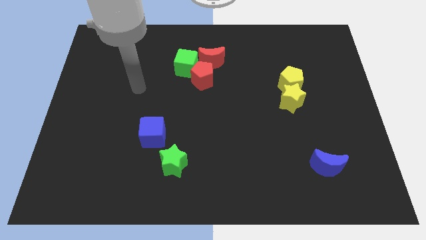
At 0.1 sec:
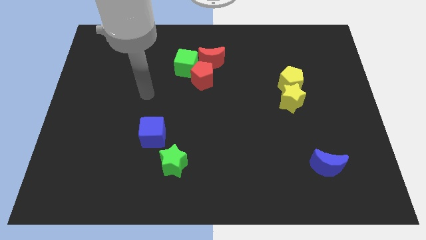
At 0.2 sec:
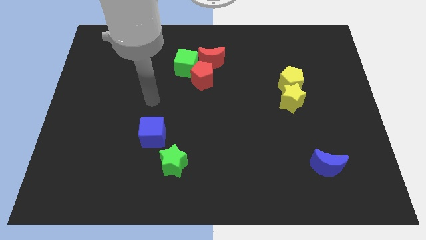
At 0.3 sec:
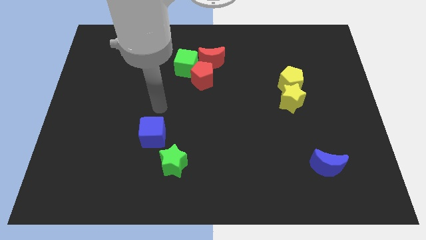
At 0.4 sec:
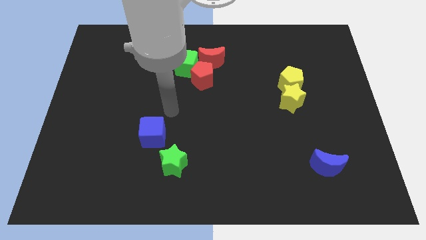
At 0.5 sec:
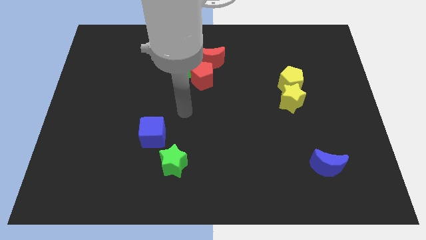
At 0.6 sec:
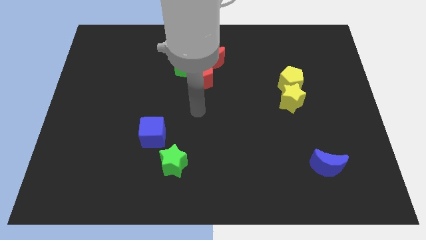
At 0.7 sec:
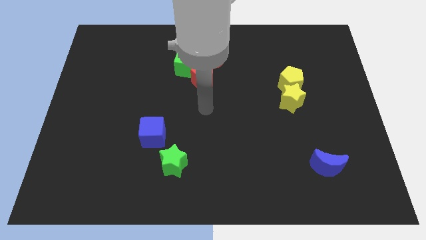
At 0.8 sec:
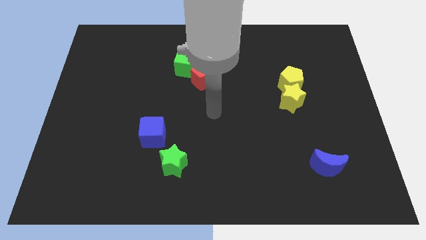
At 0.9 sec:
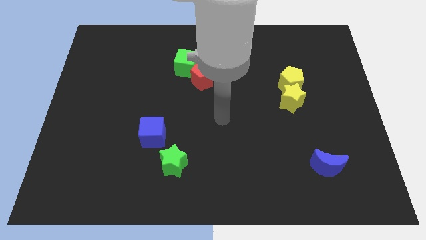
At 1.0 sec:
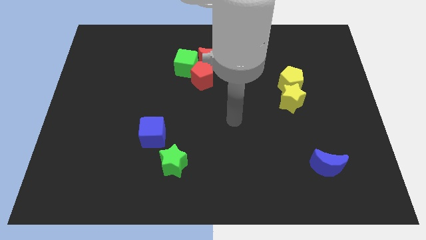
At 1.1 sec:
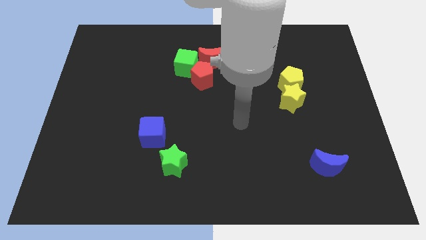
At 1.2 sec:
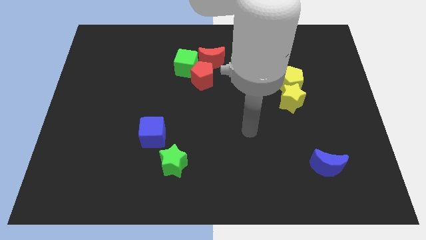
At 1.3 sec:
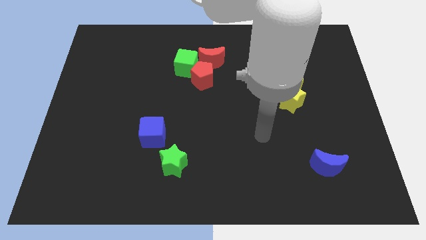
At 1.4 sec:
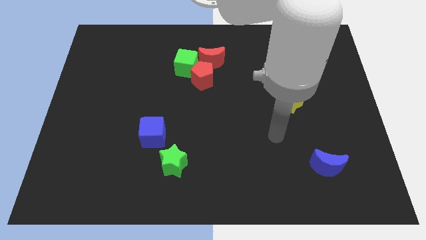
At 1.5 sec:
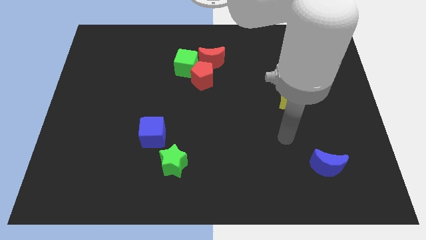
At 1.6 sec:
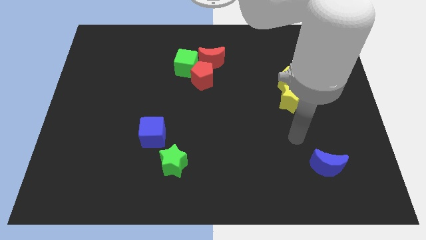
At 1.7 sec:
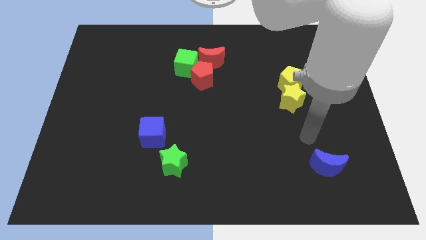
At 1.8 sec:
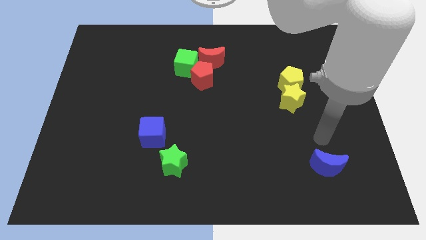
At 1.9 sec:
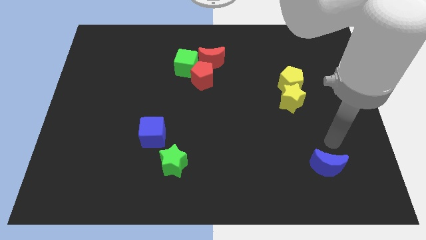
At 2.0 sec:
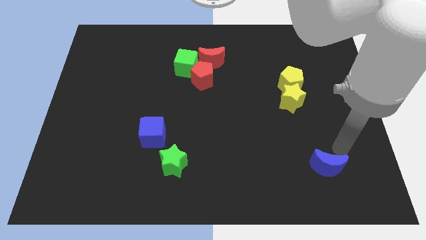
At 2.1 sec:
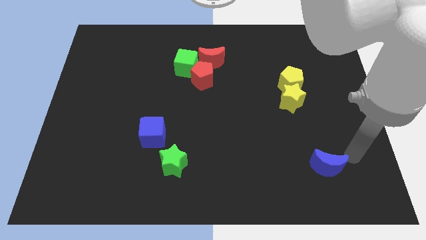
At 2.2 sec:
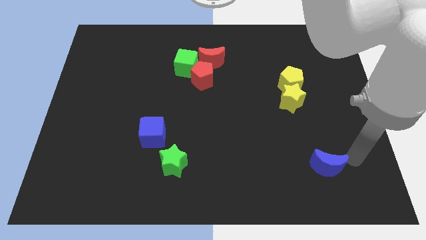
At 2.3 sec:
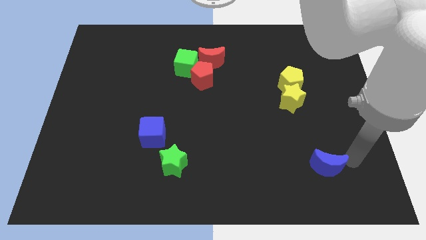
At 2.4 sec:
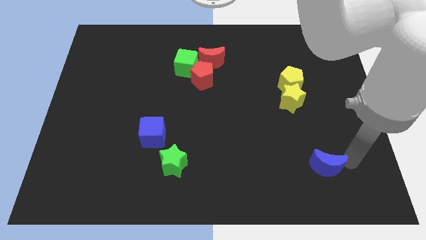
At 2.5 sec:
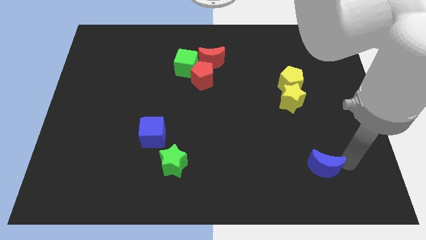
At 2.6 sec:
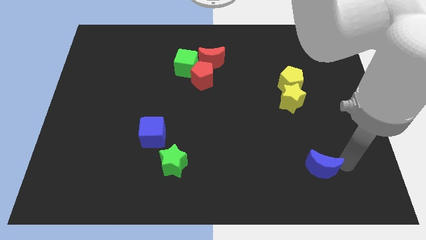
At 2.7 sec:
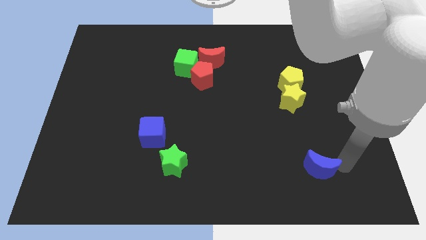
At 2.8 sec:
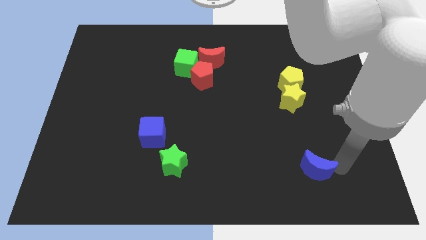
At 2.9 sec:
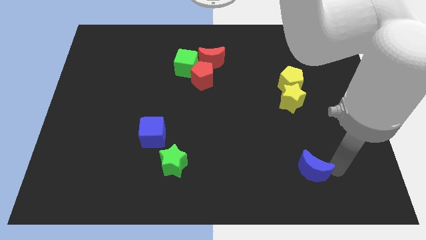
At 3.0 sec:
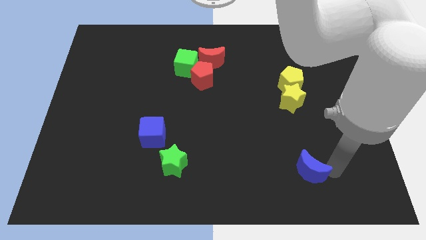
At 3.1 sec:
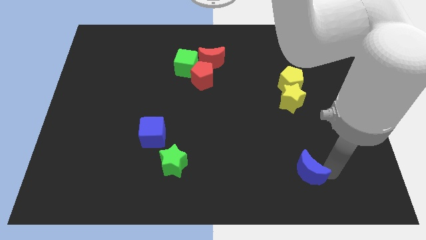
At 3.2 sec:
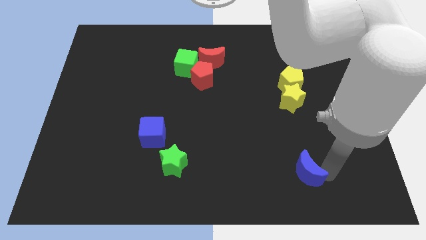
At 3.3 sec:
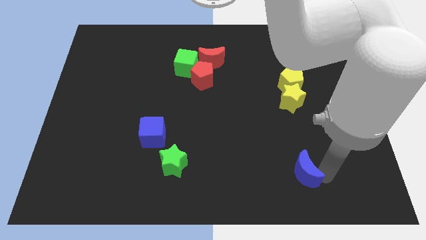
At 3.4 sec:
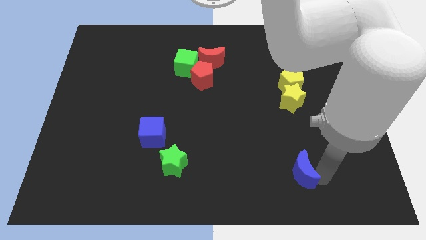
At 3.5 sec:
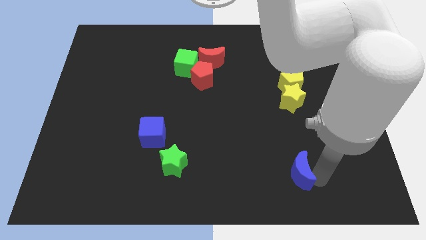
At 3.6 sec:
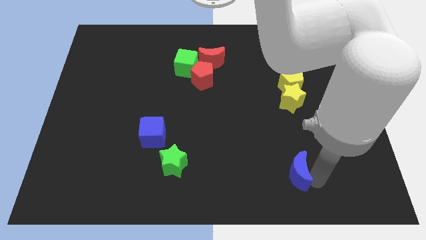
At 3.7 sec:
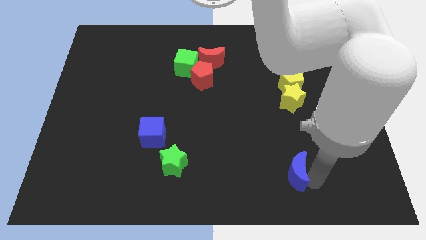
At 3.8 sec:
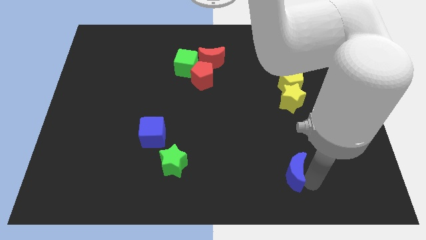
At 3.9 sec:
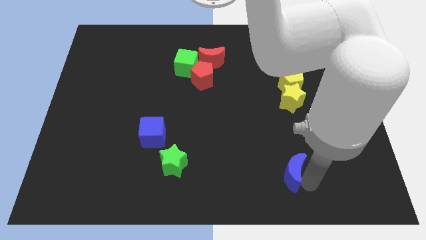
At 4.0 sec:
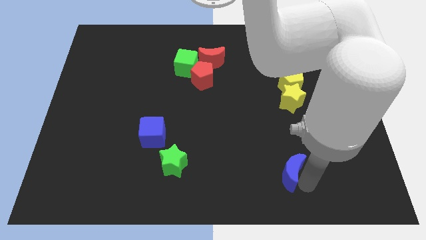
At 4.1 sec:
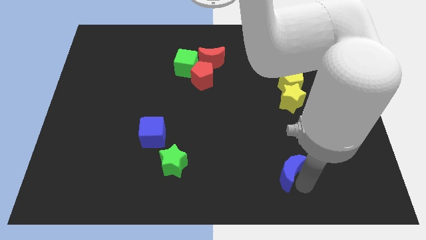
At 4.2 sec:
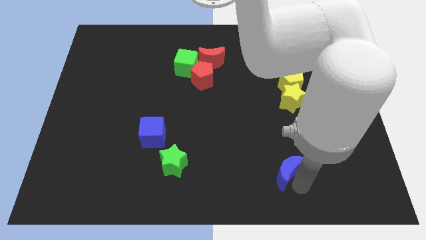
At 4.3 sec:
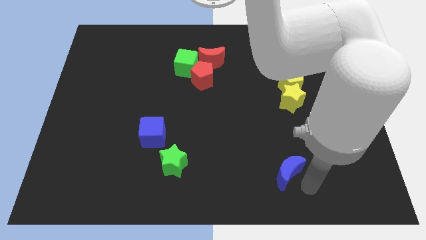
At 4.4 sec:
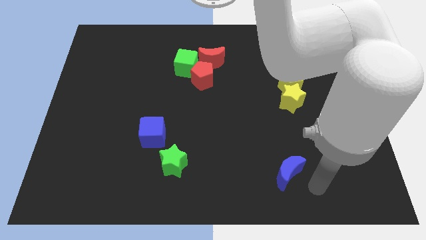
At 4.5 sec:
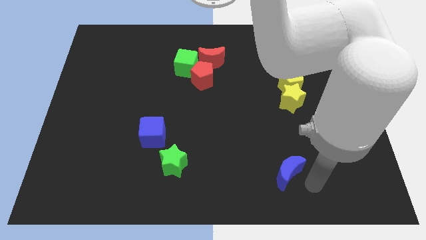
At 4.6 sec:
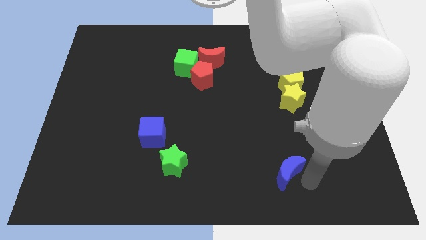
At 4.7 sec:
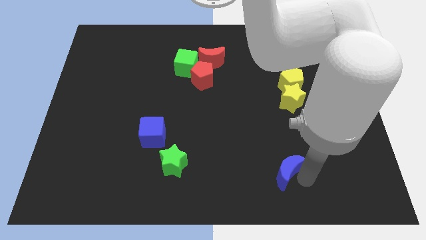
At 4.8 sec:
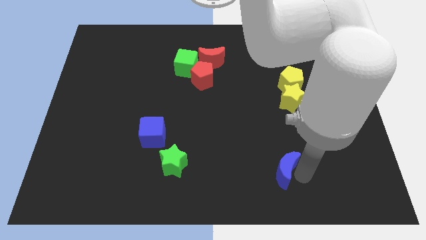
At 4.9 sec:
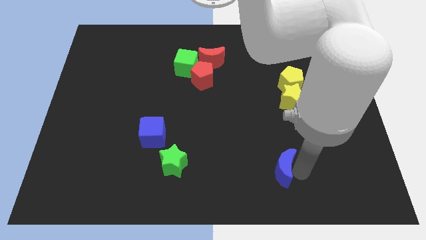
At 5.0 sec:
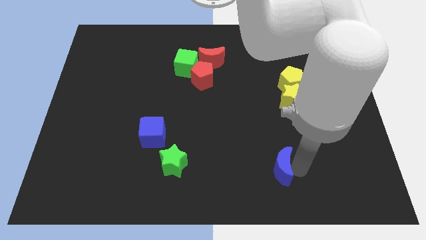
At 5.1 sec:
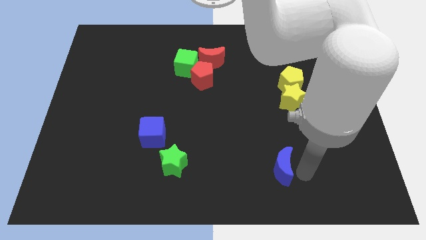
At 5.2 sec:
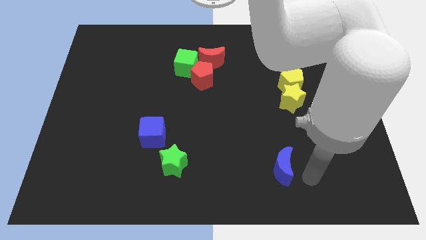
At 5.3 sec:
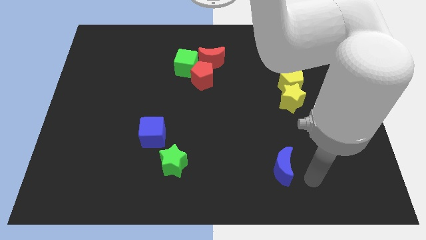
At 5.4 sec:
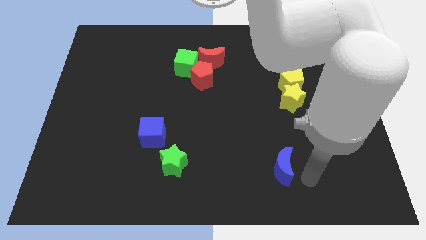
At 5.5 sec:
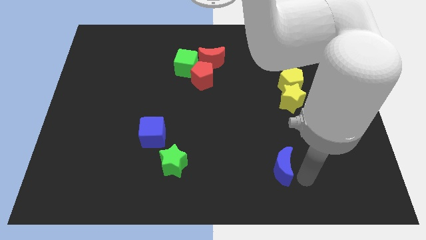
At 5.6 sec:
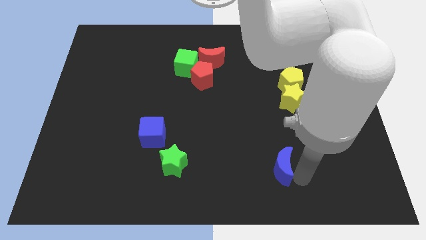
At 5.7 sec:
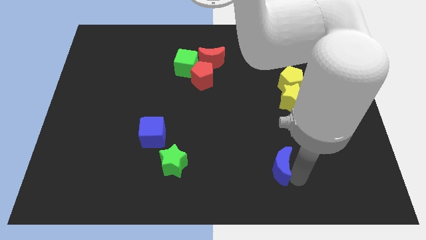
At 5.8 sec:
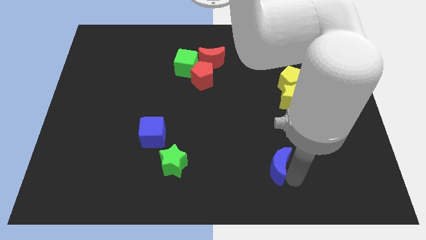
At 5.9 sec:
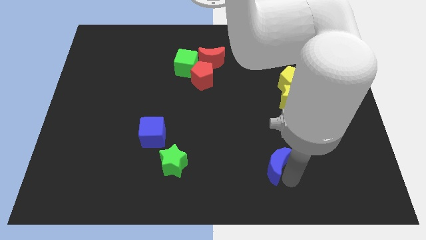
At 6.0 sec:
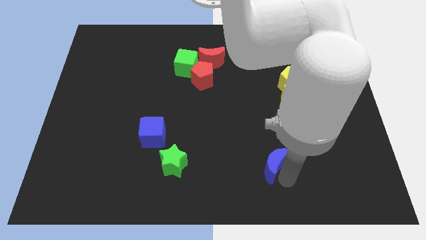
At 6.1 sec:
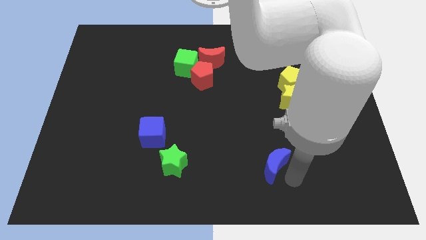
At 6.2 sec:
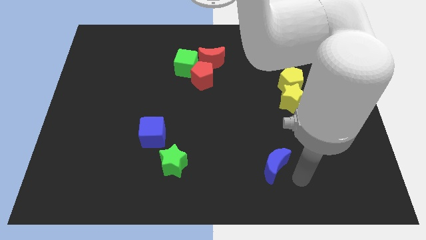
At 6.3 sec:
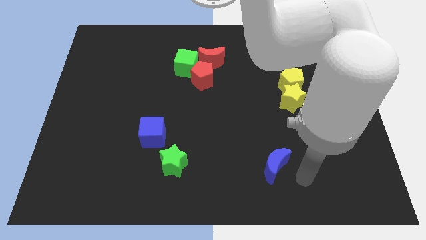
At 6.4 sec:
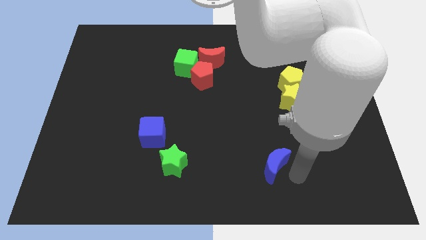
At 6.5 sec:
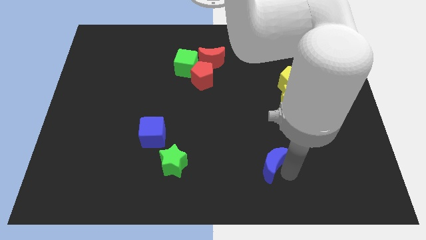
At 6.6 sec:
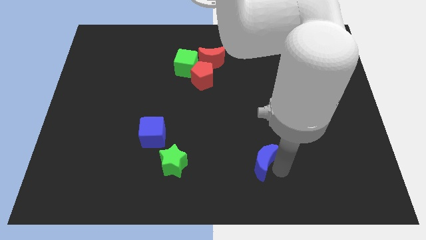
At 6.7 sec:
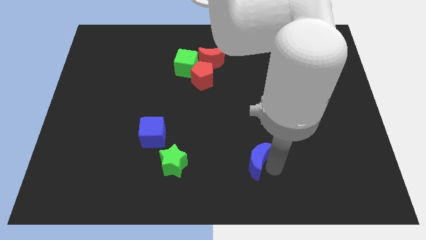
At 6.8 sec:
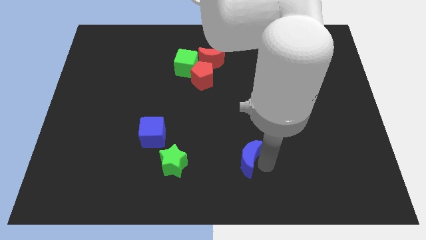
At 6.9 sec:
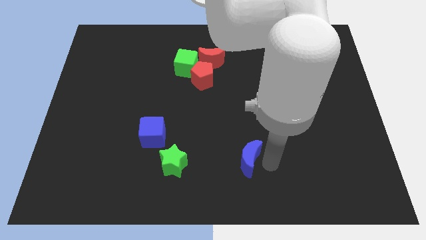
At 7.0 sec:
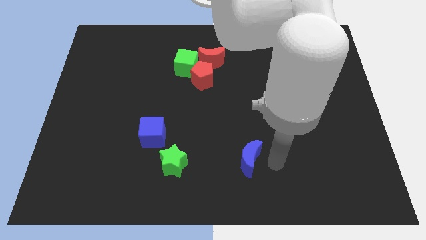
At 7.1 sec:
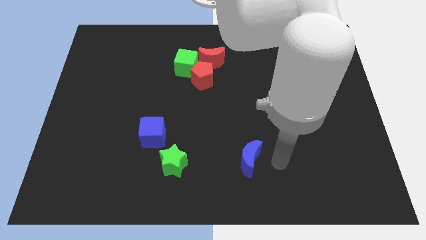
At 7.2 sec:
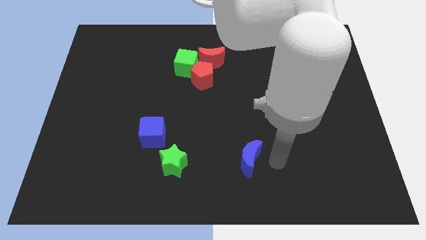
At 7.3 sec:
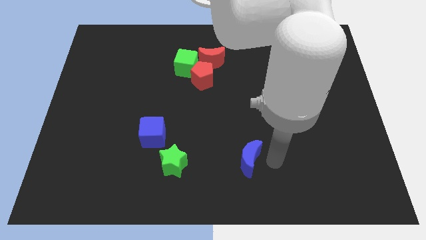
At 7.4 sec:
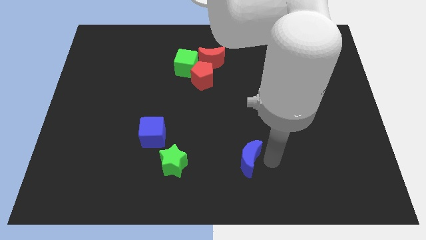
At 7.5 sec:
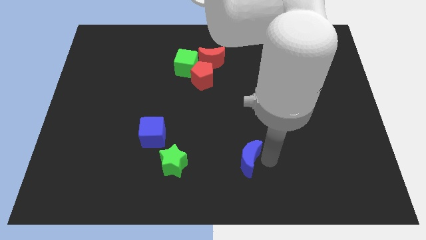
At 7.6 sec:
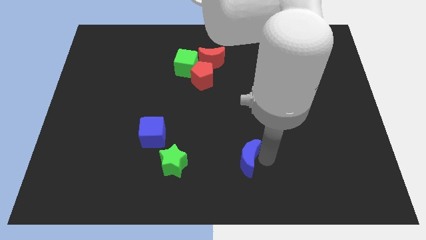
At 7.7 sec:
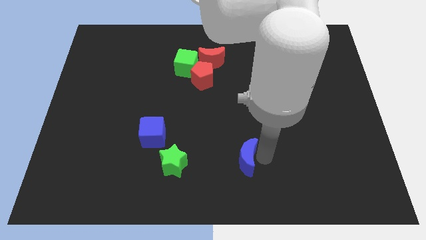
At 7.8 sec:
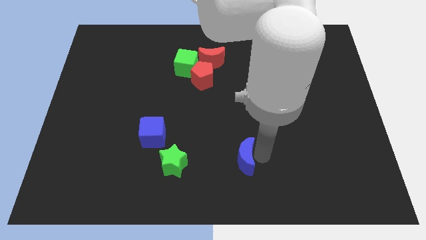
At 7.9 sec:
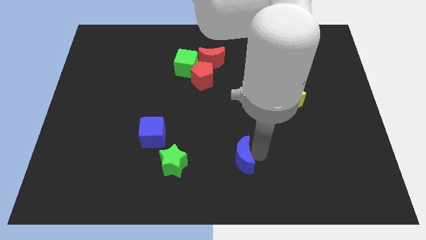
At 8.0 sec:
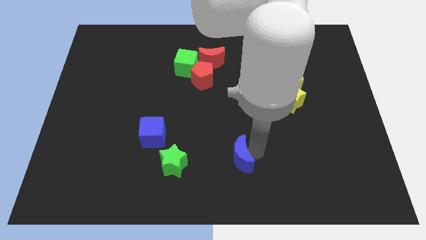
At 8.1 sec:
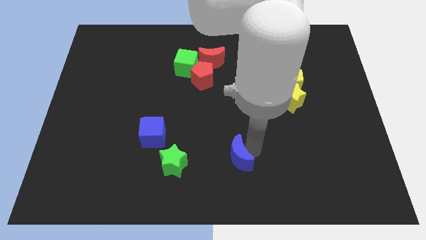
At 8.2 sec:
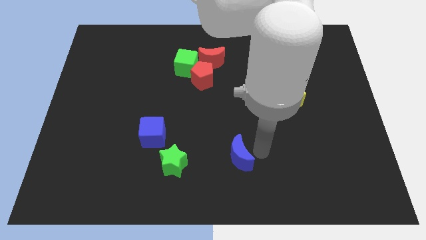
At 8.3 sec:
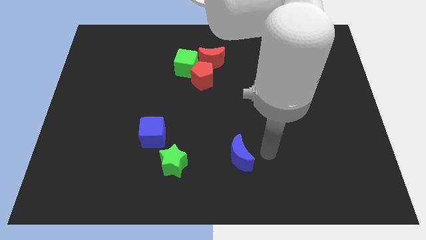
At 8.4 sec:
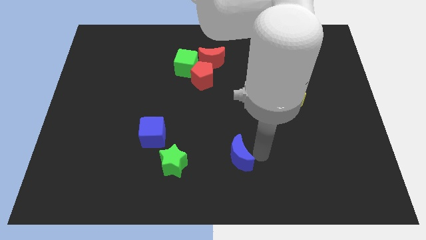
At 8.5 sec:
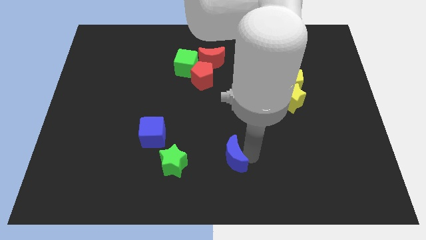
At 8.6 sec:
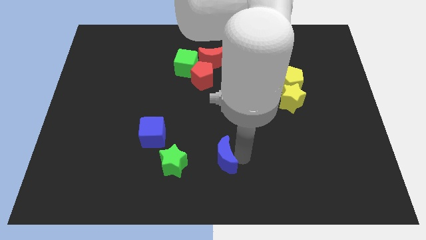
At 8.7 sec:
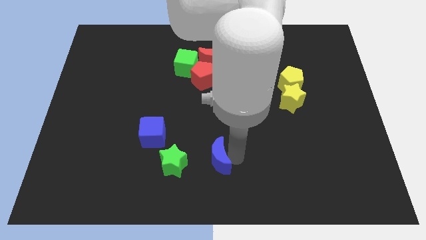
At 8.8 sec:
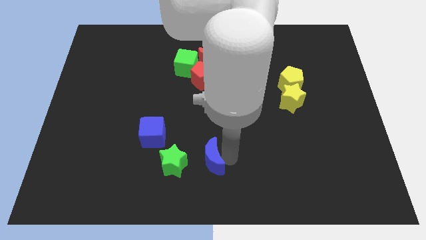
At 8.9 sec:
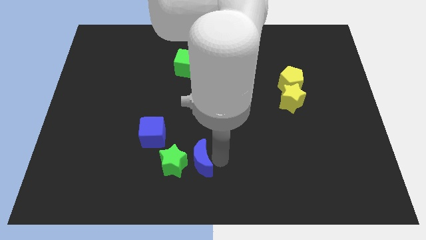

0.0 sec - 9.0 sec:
push the blue moon towards the green star
